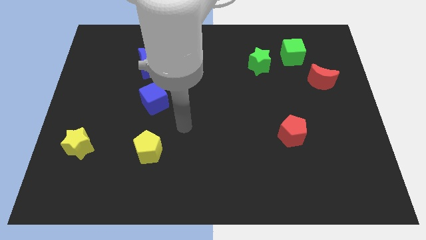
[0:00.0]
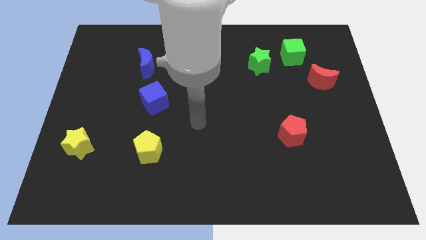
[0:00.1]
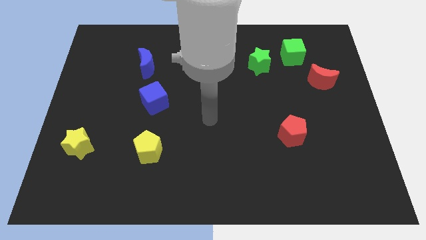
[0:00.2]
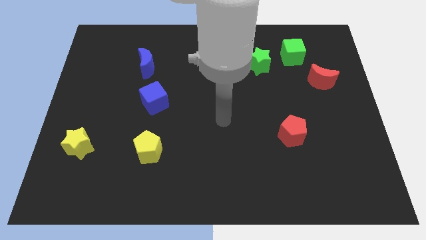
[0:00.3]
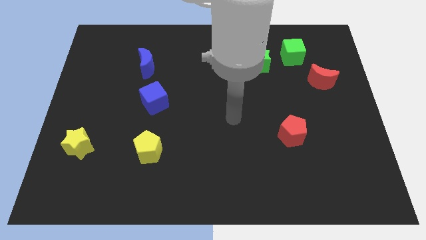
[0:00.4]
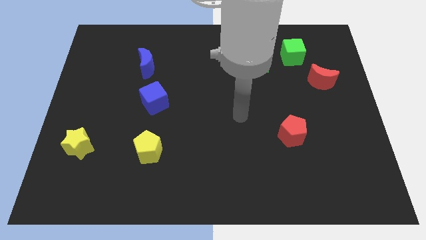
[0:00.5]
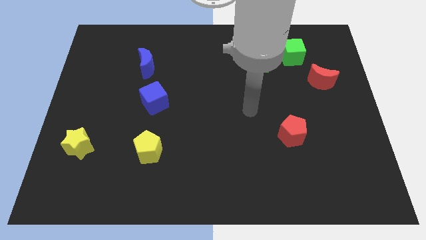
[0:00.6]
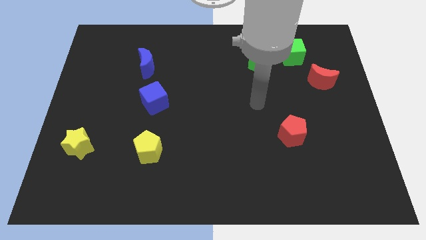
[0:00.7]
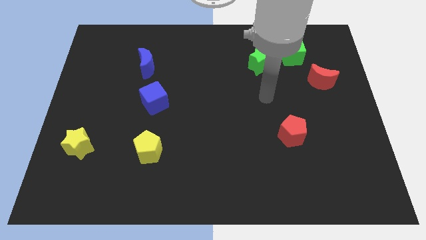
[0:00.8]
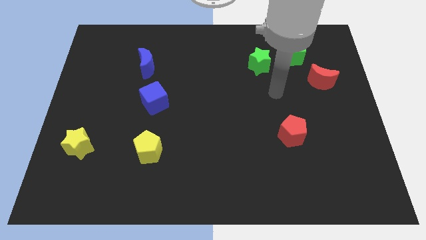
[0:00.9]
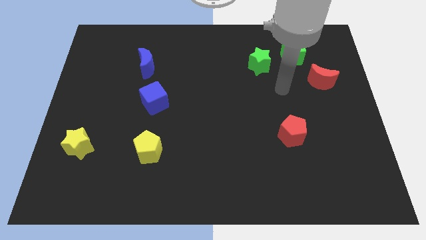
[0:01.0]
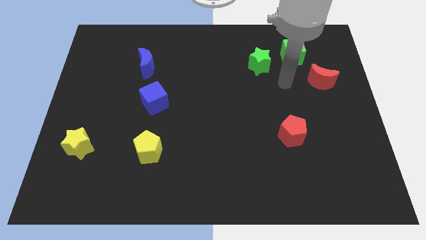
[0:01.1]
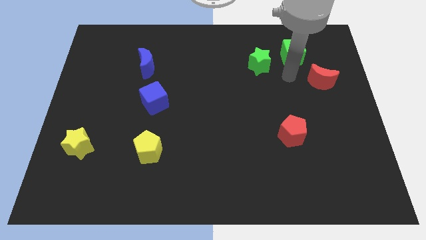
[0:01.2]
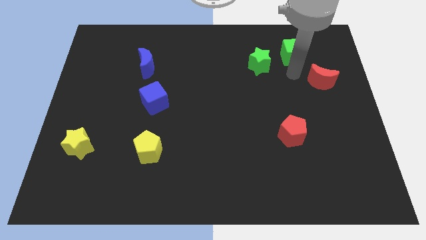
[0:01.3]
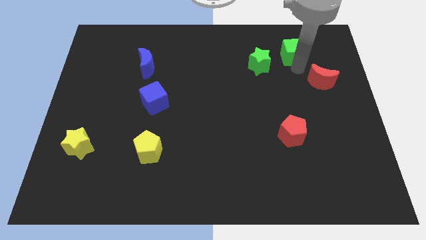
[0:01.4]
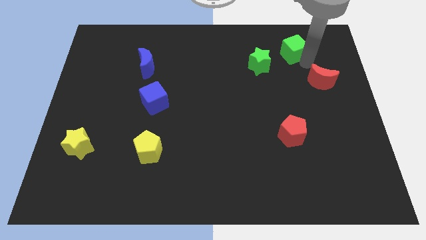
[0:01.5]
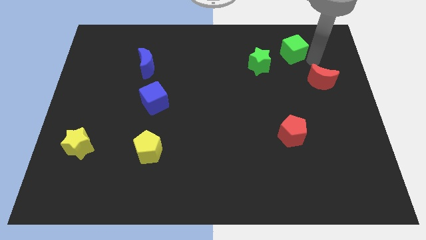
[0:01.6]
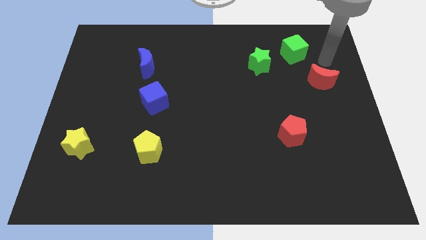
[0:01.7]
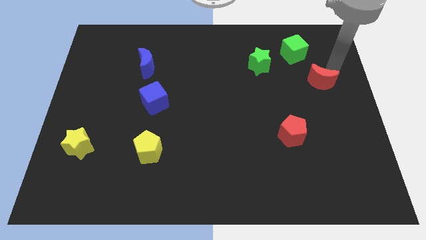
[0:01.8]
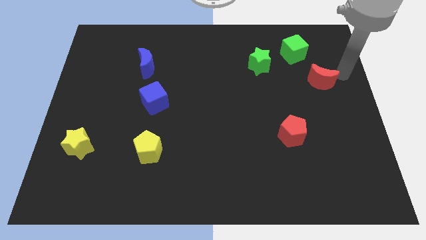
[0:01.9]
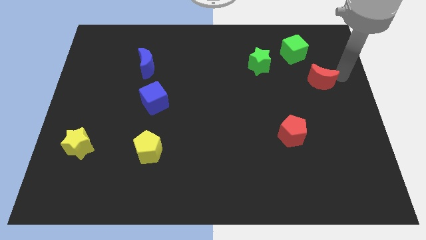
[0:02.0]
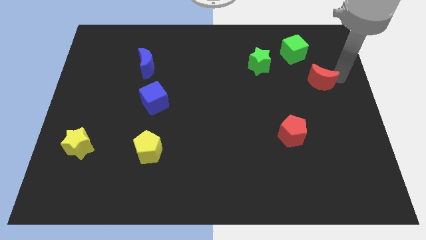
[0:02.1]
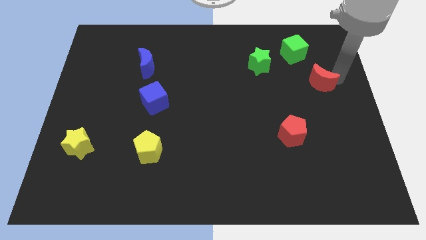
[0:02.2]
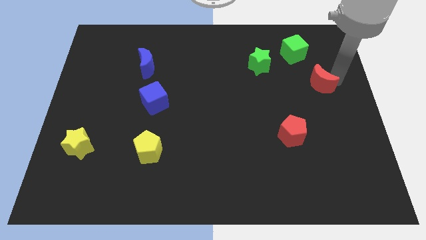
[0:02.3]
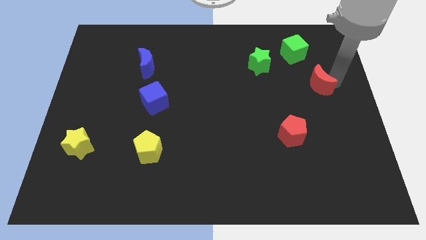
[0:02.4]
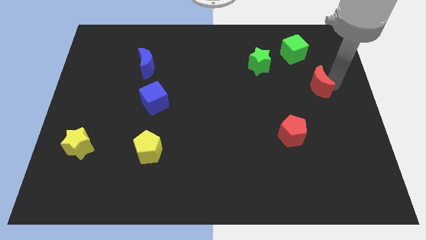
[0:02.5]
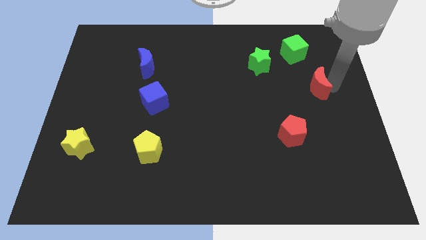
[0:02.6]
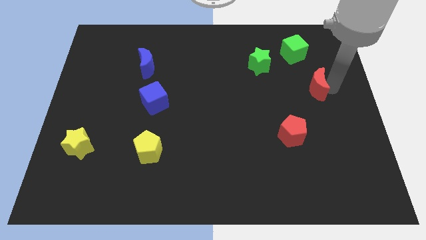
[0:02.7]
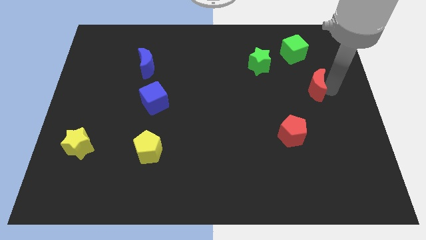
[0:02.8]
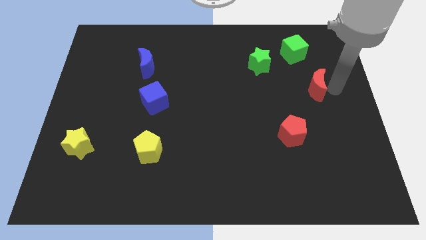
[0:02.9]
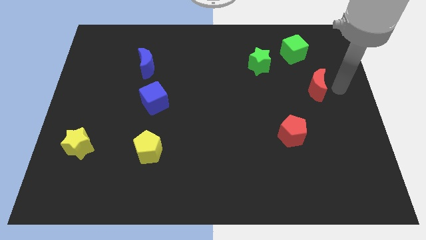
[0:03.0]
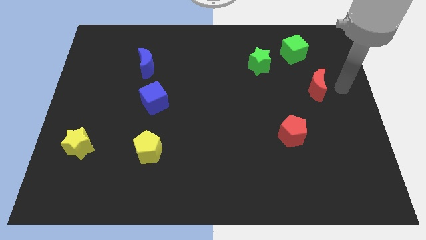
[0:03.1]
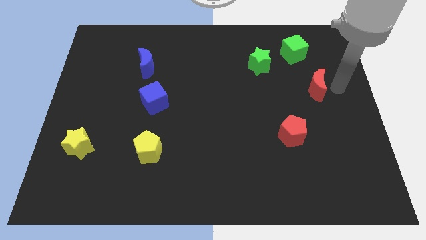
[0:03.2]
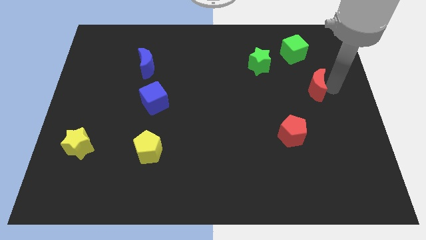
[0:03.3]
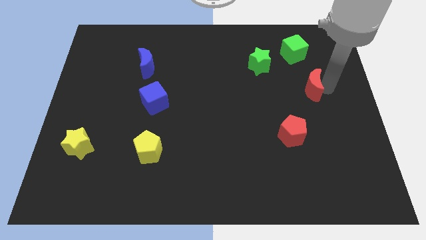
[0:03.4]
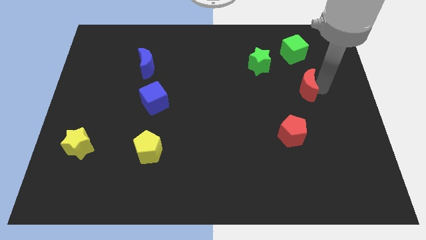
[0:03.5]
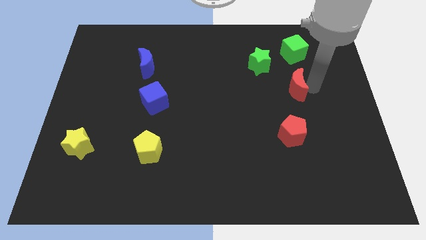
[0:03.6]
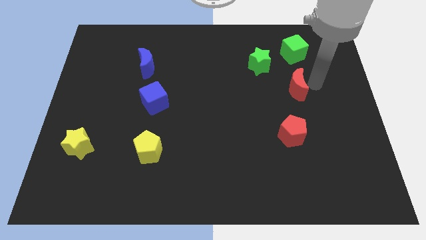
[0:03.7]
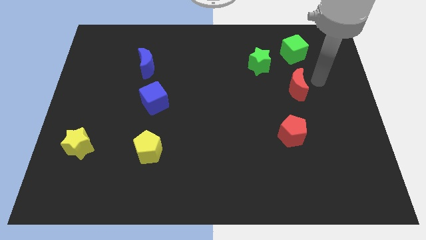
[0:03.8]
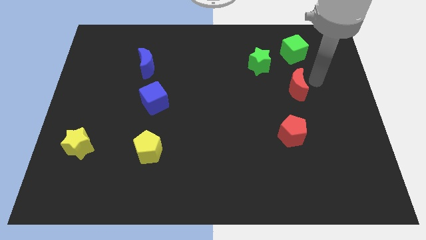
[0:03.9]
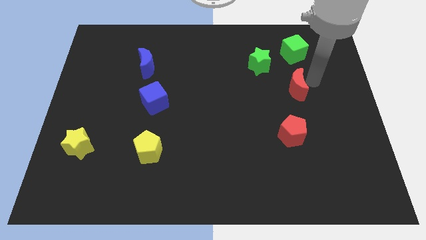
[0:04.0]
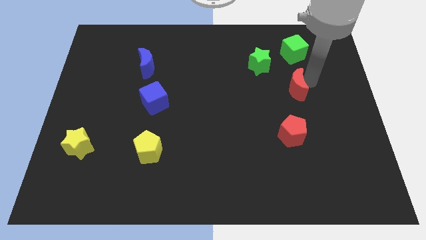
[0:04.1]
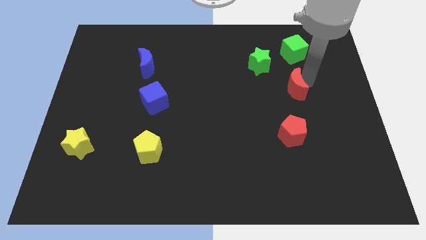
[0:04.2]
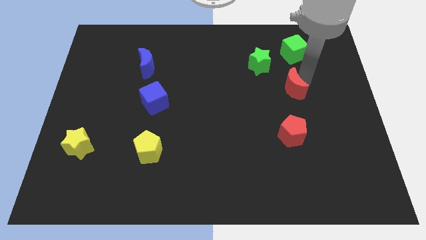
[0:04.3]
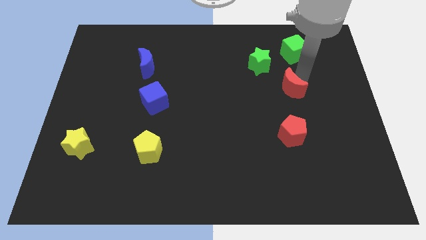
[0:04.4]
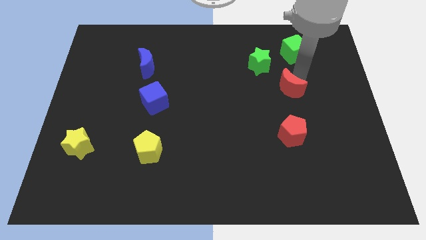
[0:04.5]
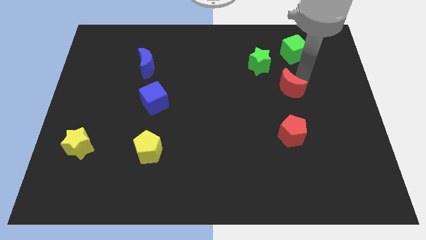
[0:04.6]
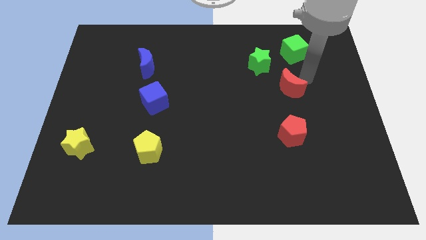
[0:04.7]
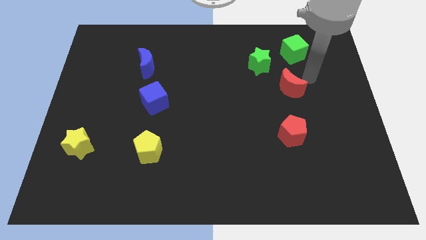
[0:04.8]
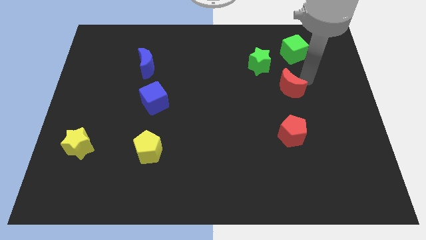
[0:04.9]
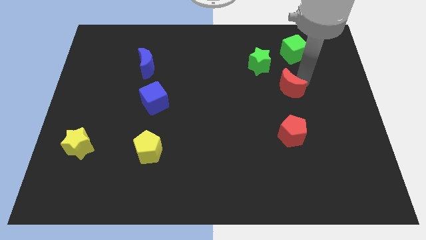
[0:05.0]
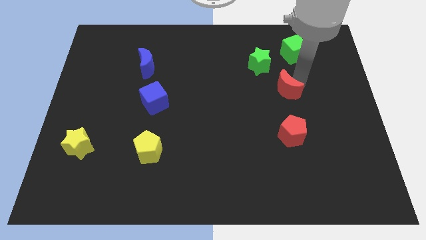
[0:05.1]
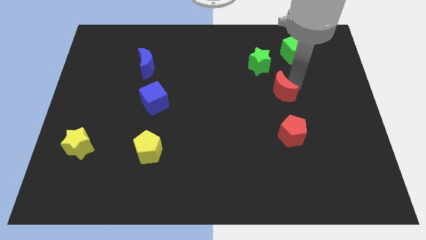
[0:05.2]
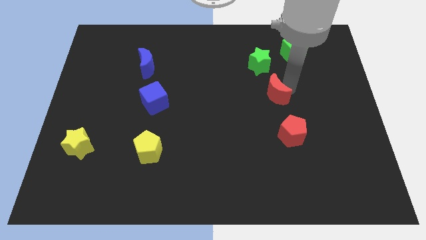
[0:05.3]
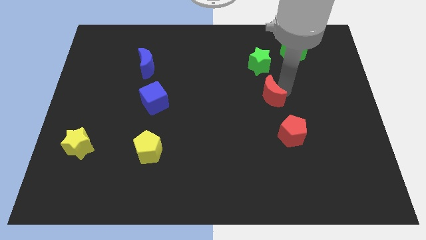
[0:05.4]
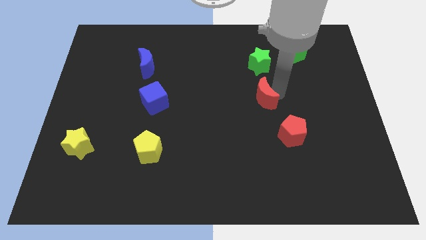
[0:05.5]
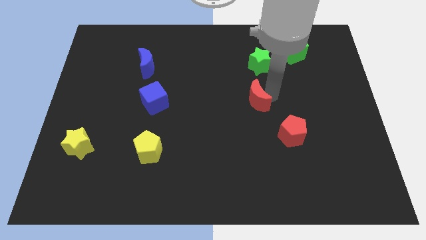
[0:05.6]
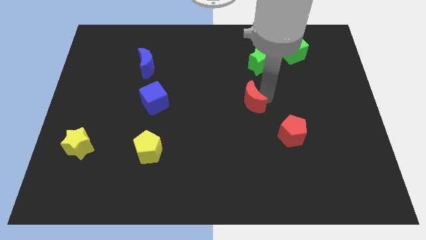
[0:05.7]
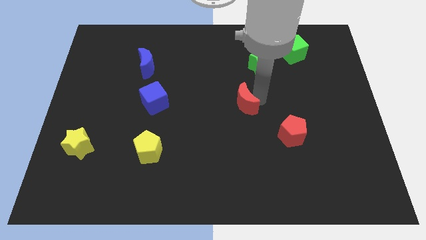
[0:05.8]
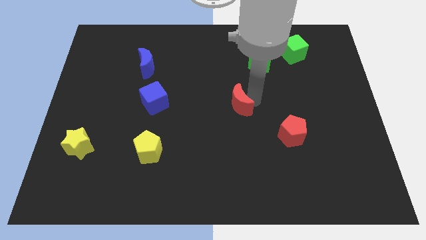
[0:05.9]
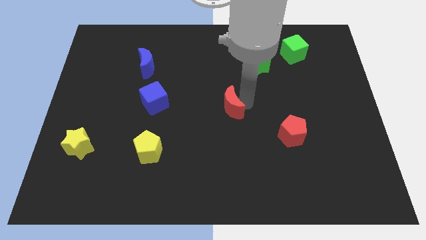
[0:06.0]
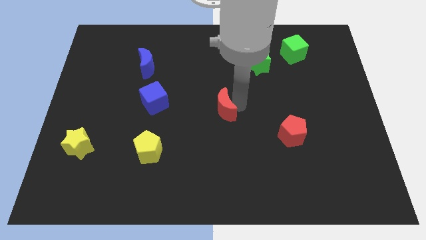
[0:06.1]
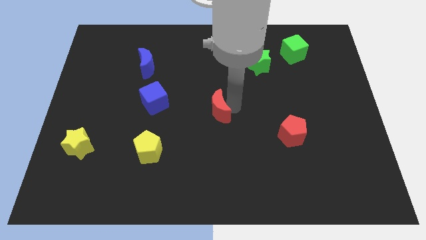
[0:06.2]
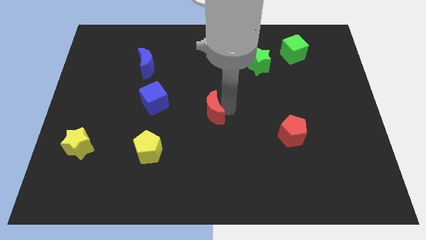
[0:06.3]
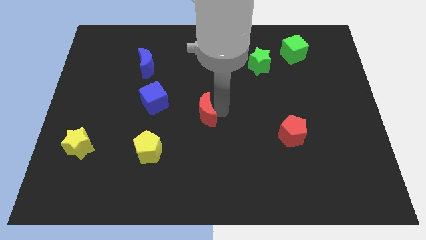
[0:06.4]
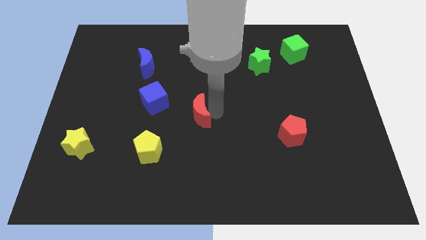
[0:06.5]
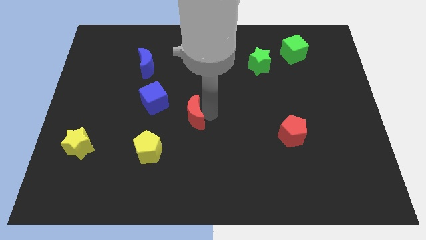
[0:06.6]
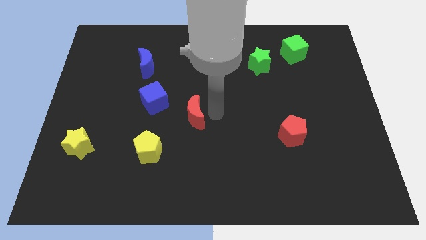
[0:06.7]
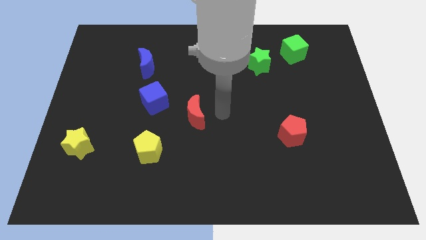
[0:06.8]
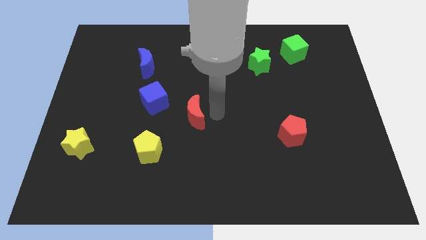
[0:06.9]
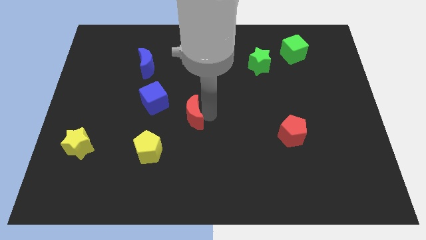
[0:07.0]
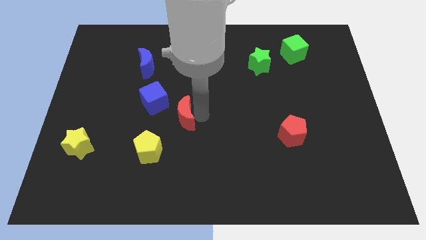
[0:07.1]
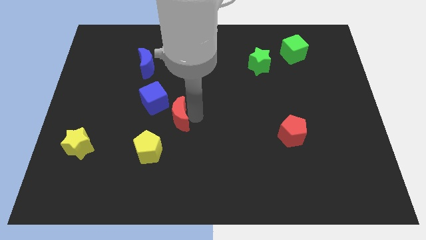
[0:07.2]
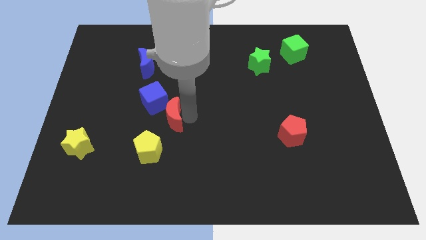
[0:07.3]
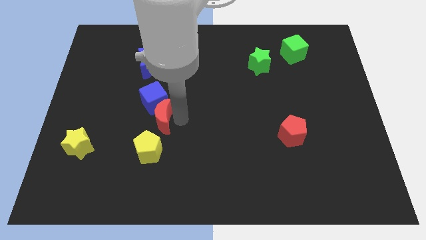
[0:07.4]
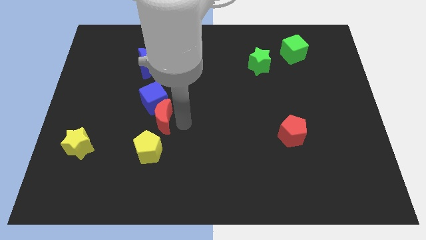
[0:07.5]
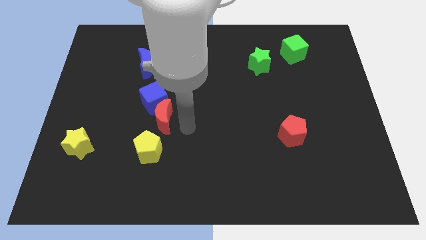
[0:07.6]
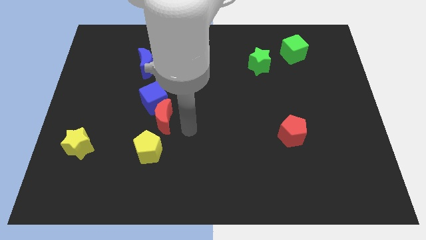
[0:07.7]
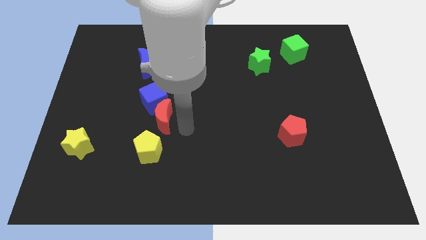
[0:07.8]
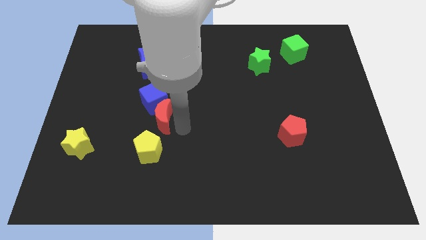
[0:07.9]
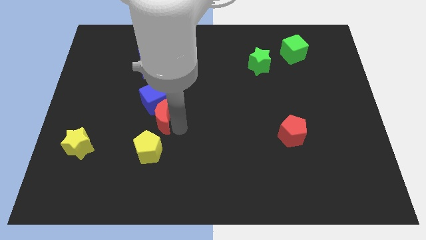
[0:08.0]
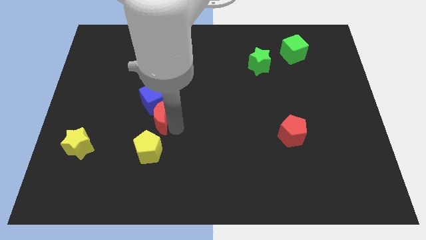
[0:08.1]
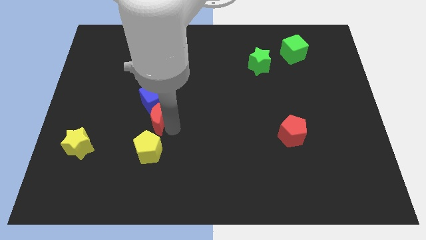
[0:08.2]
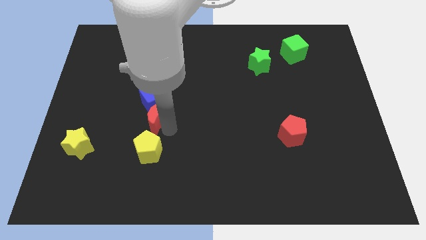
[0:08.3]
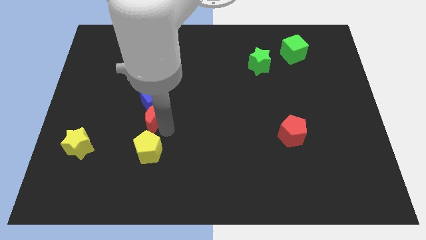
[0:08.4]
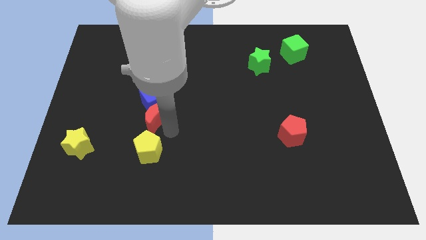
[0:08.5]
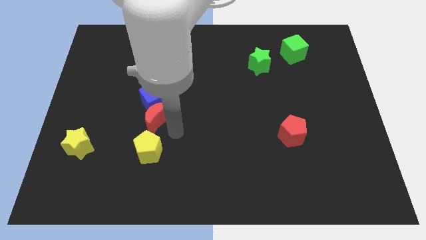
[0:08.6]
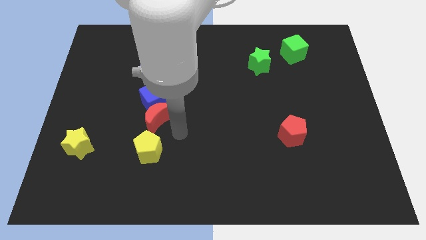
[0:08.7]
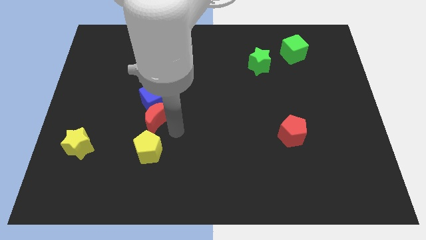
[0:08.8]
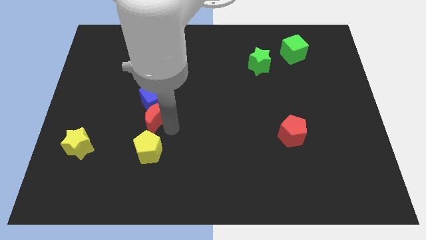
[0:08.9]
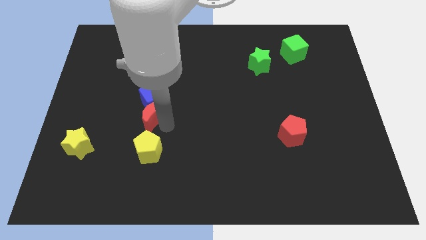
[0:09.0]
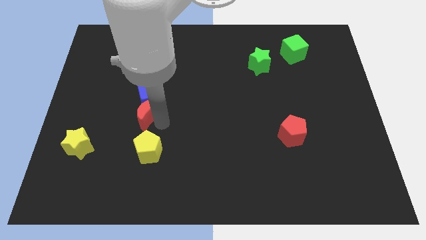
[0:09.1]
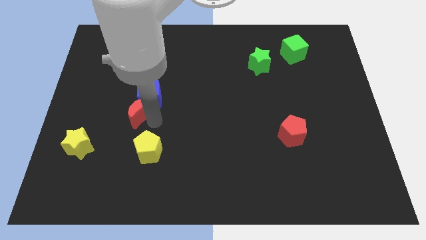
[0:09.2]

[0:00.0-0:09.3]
move the red moon below the blue moon
